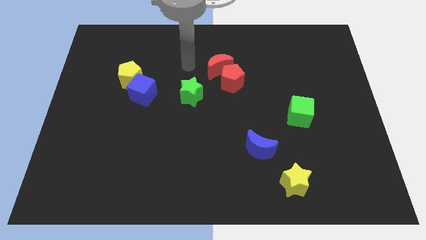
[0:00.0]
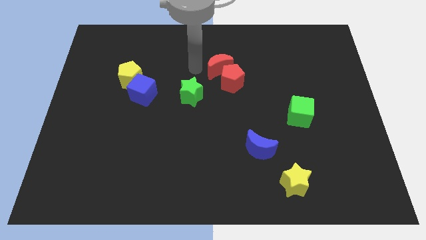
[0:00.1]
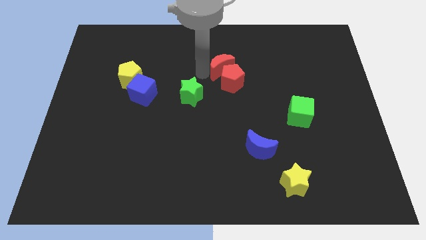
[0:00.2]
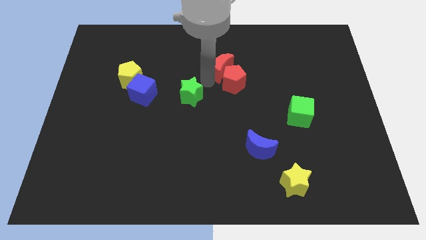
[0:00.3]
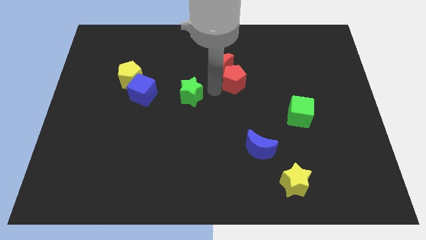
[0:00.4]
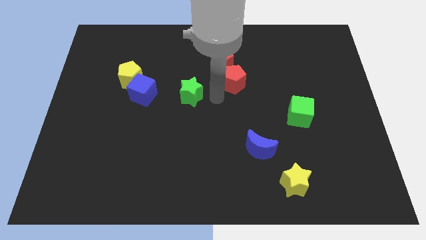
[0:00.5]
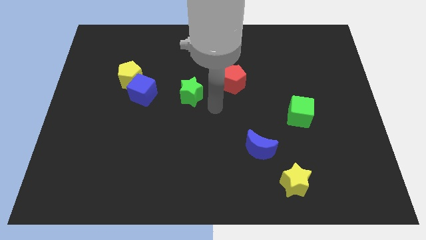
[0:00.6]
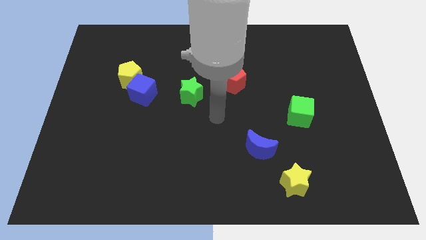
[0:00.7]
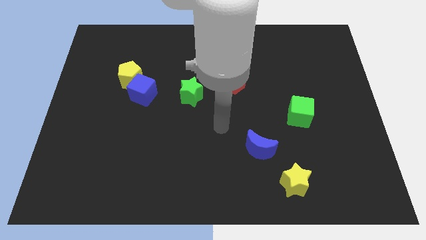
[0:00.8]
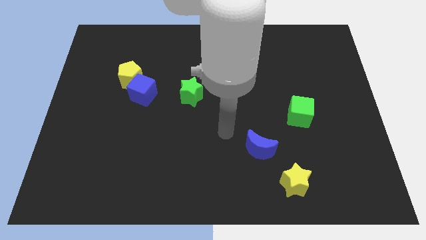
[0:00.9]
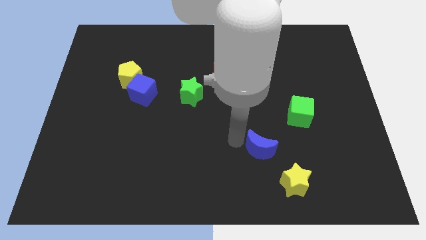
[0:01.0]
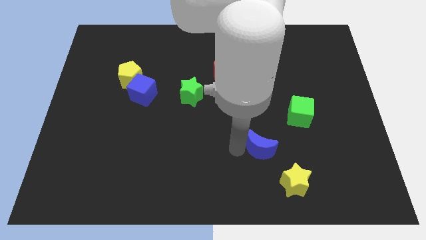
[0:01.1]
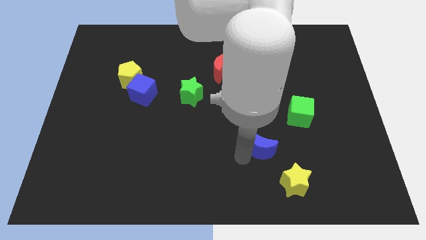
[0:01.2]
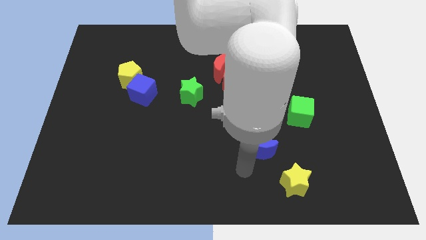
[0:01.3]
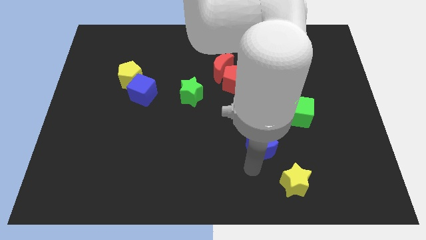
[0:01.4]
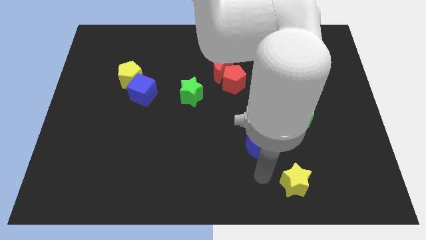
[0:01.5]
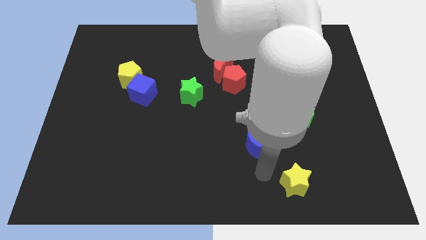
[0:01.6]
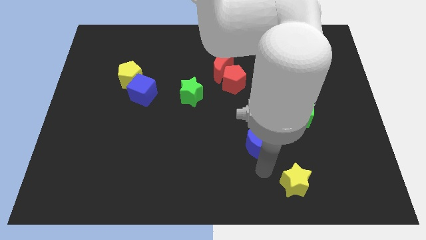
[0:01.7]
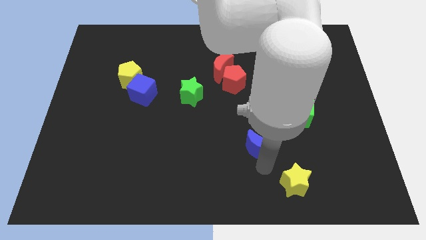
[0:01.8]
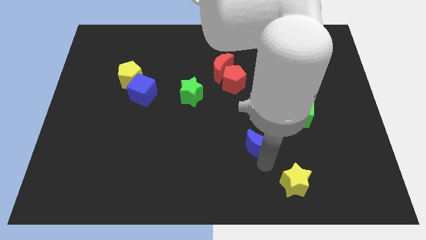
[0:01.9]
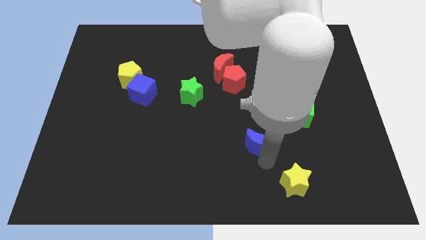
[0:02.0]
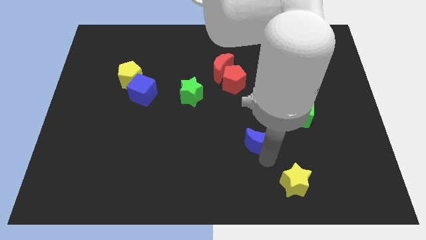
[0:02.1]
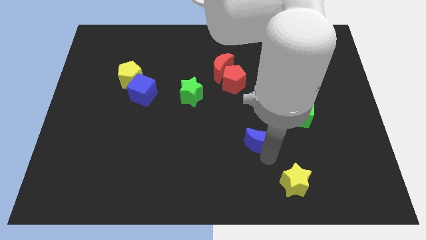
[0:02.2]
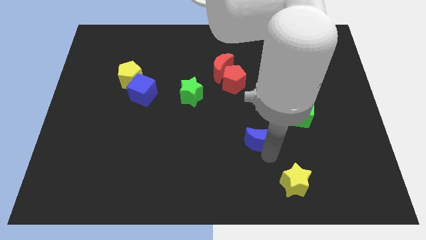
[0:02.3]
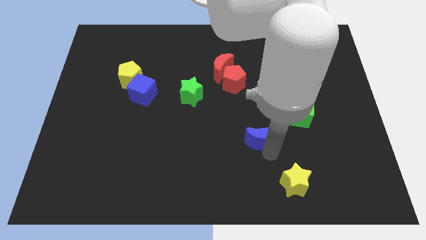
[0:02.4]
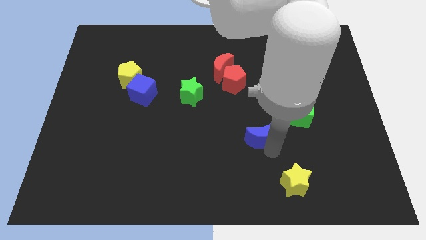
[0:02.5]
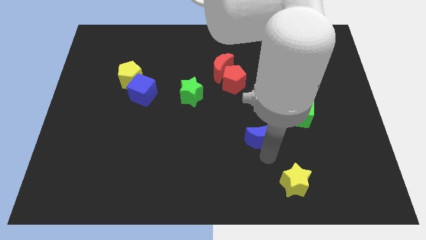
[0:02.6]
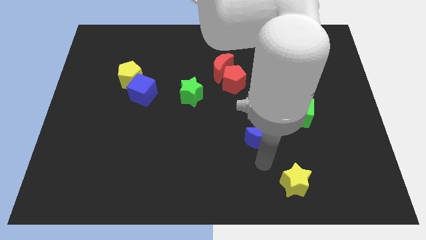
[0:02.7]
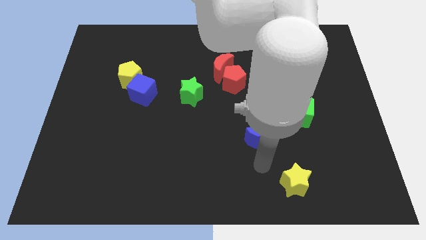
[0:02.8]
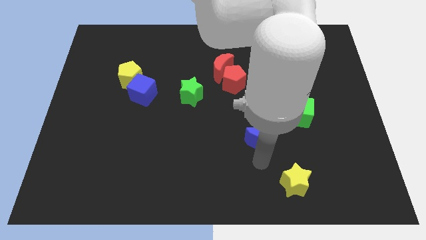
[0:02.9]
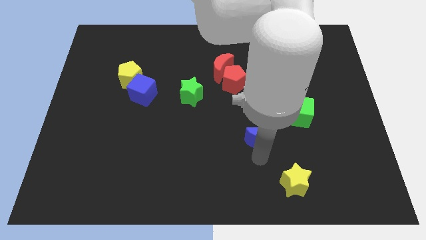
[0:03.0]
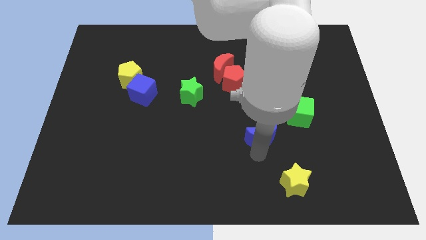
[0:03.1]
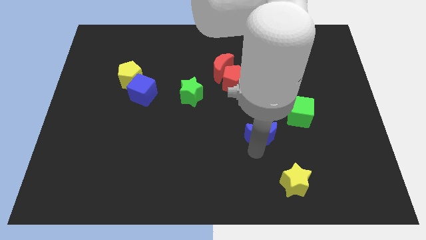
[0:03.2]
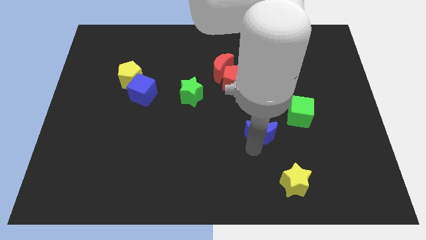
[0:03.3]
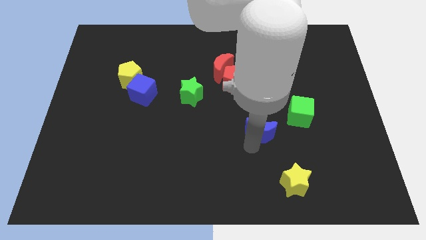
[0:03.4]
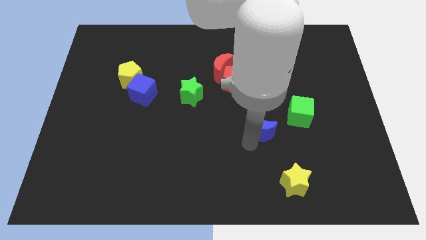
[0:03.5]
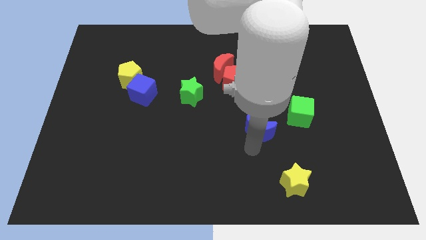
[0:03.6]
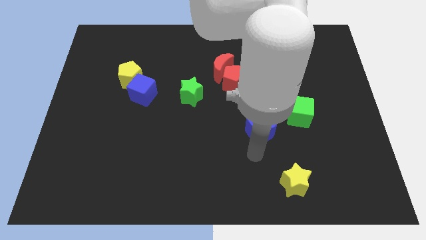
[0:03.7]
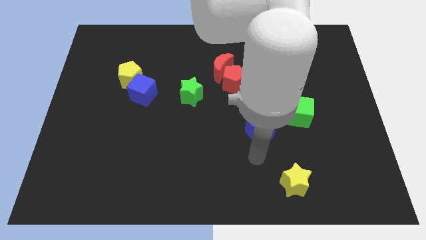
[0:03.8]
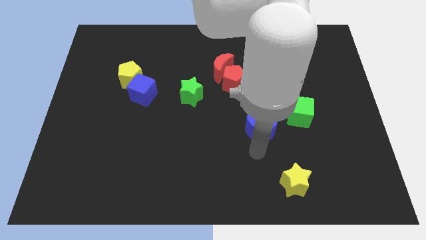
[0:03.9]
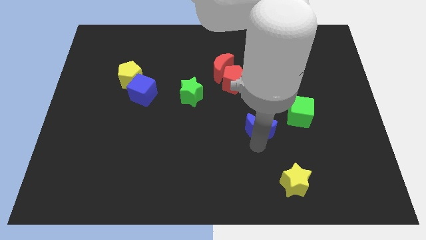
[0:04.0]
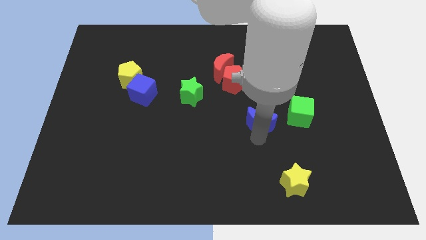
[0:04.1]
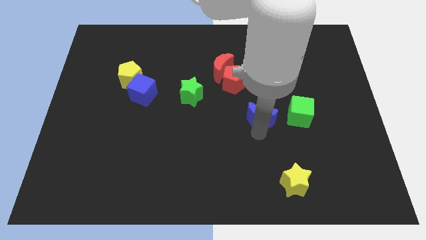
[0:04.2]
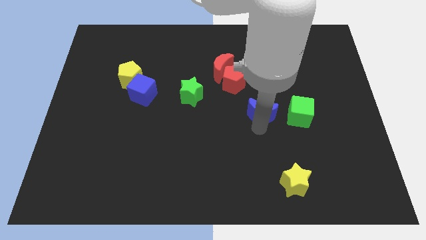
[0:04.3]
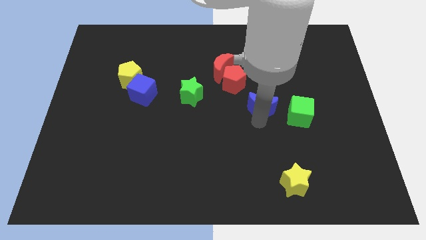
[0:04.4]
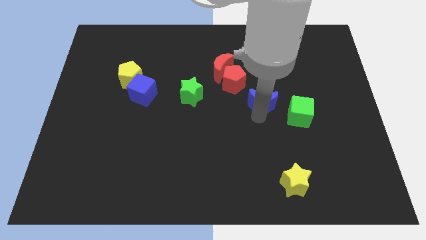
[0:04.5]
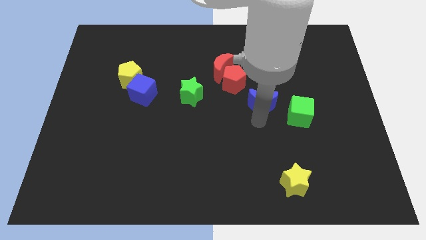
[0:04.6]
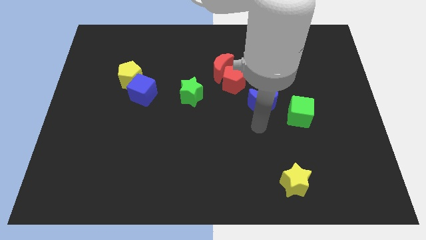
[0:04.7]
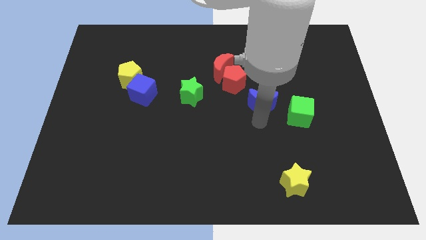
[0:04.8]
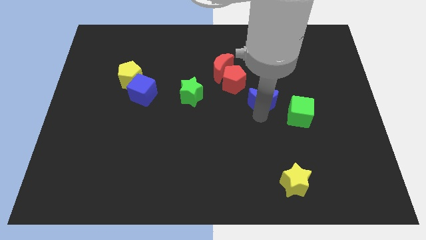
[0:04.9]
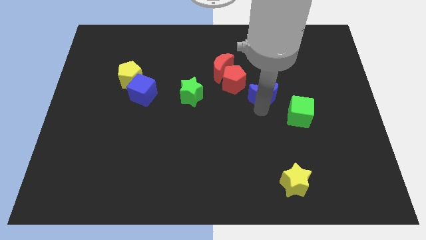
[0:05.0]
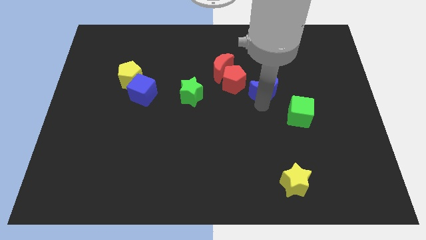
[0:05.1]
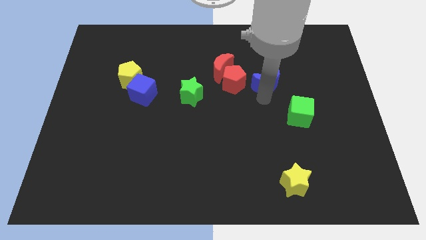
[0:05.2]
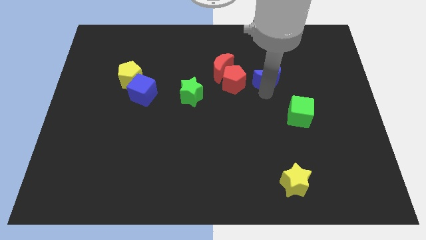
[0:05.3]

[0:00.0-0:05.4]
put the blue moon right of the red moon

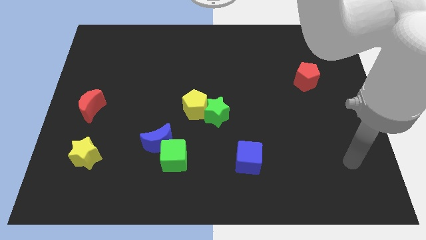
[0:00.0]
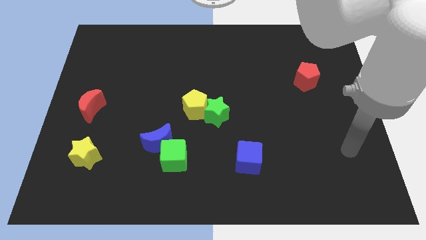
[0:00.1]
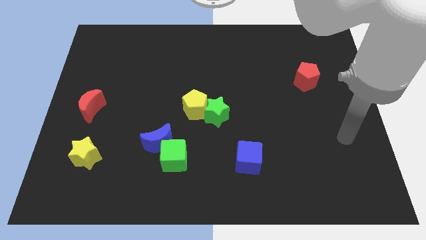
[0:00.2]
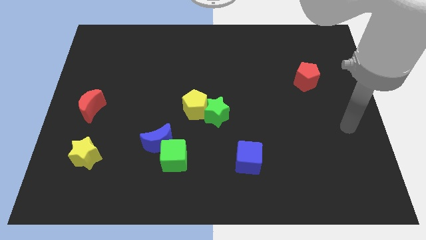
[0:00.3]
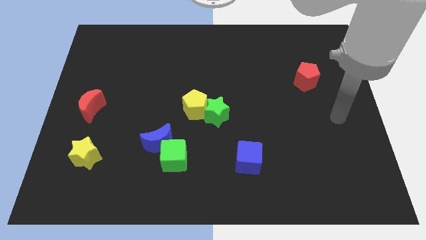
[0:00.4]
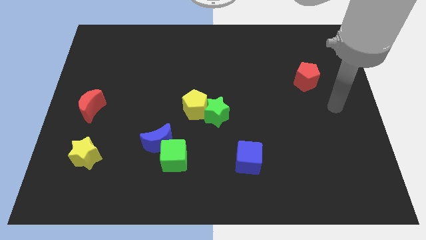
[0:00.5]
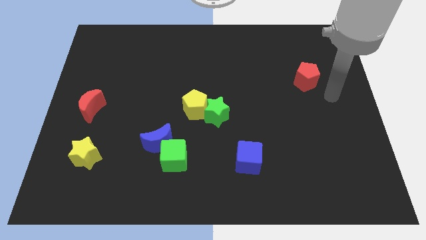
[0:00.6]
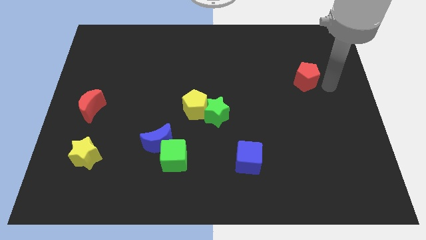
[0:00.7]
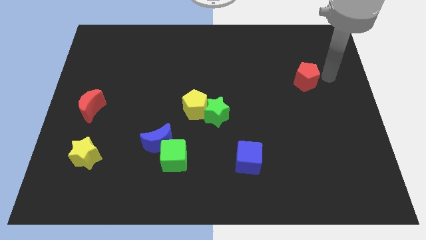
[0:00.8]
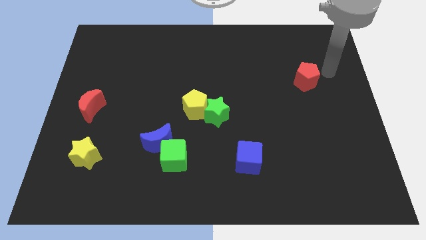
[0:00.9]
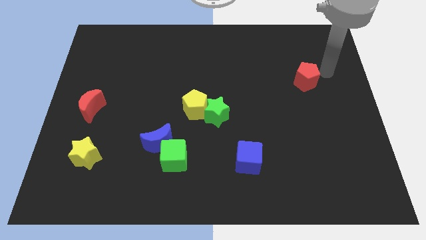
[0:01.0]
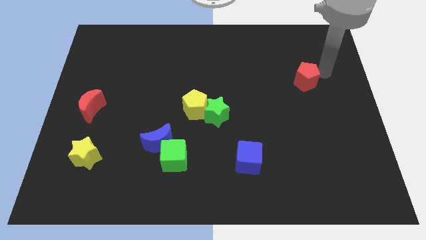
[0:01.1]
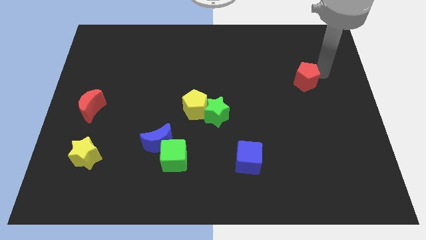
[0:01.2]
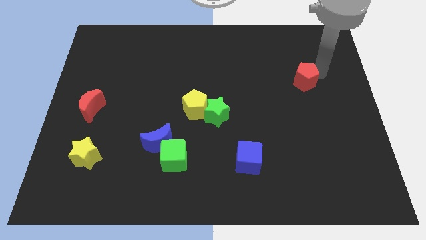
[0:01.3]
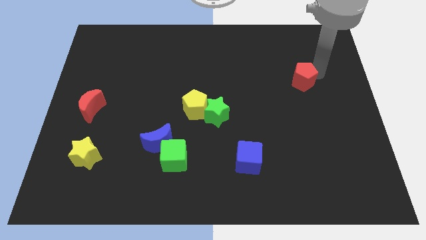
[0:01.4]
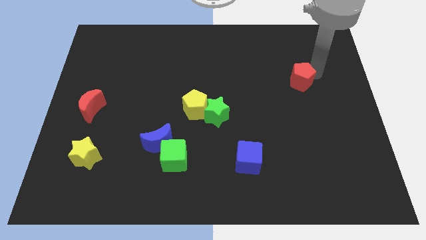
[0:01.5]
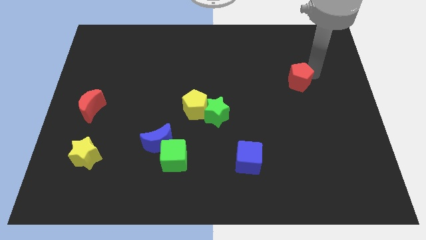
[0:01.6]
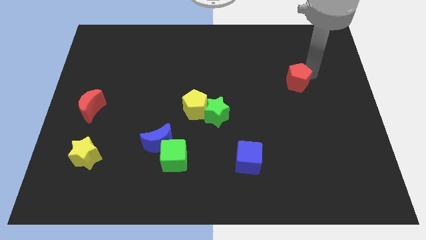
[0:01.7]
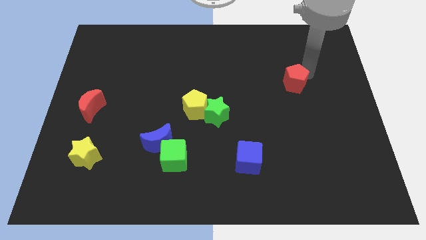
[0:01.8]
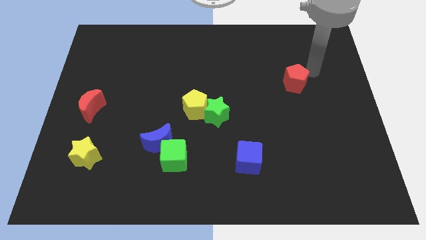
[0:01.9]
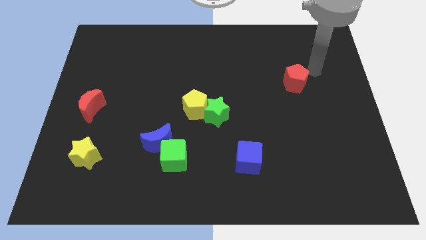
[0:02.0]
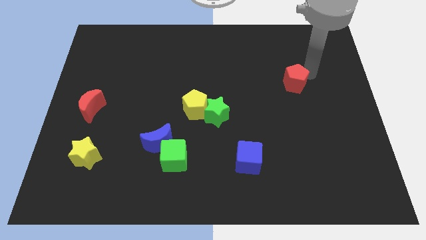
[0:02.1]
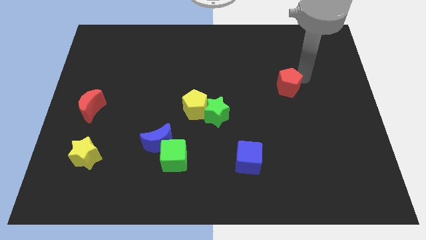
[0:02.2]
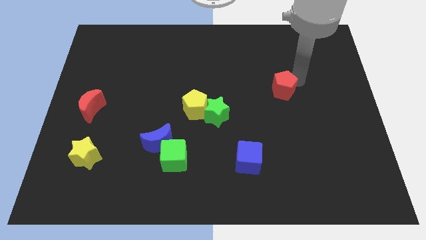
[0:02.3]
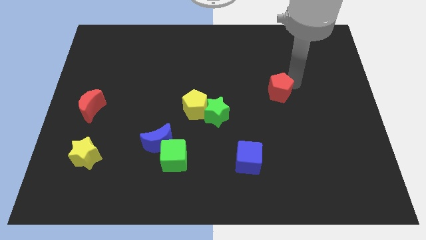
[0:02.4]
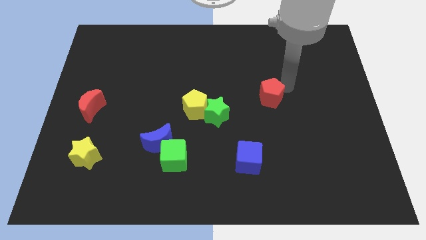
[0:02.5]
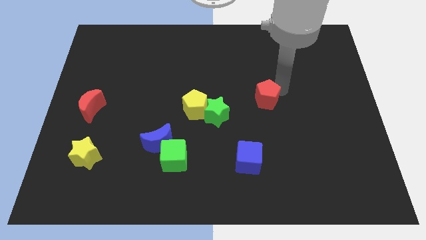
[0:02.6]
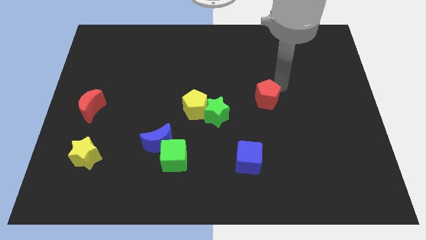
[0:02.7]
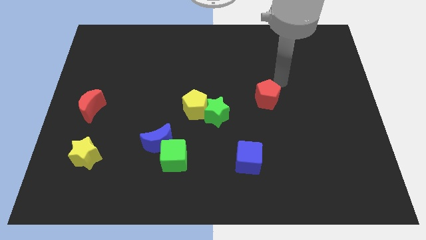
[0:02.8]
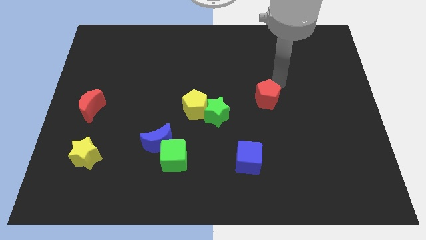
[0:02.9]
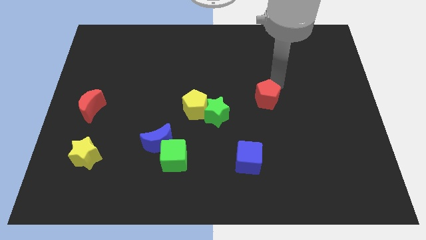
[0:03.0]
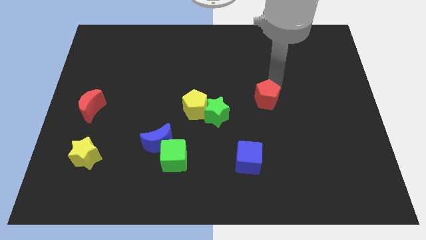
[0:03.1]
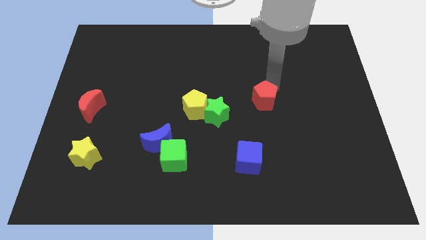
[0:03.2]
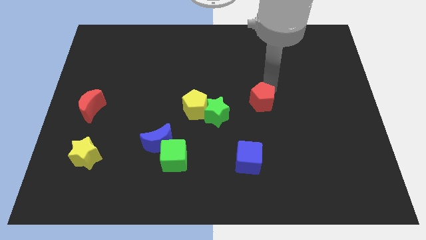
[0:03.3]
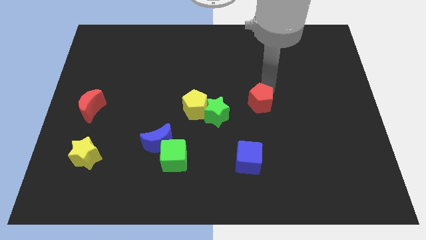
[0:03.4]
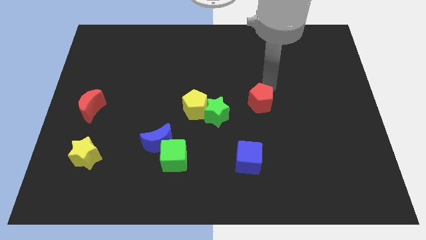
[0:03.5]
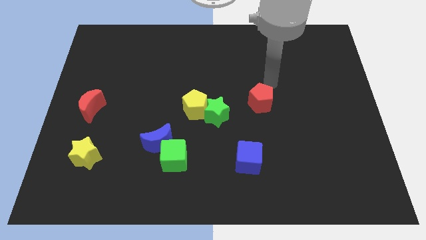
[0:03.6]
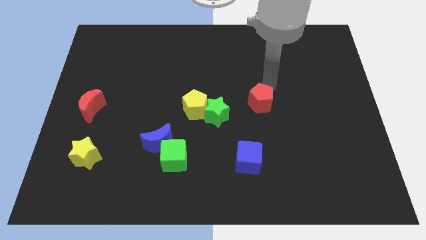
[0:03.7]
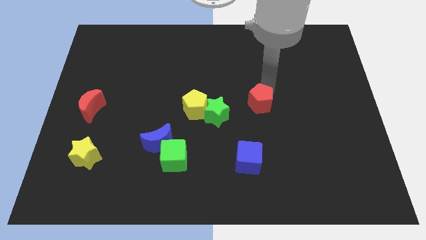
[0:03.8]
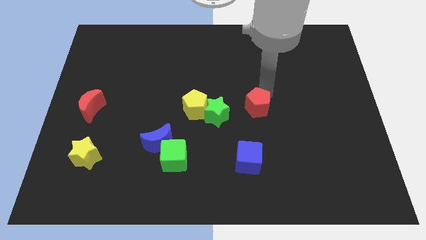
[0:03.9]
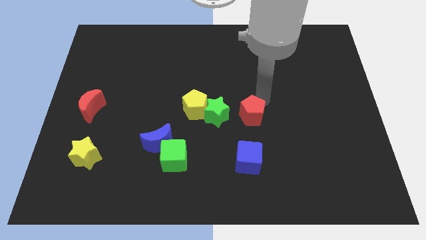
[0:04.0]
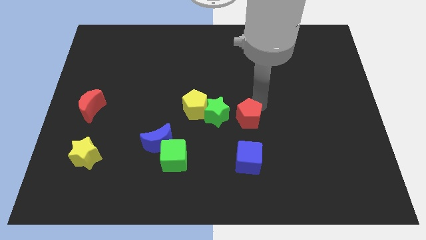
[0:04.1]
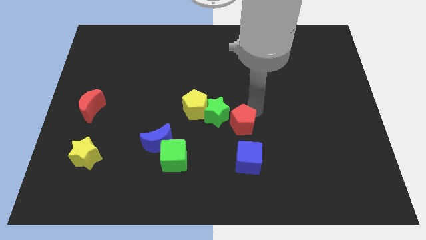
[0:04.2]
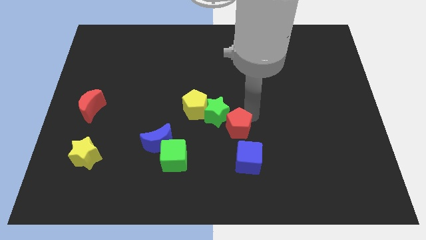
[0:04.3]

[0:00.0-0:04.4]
push the red pentagon to the top left of the blue cube
